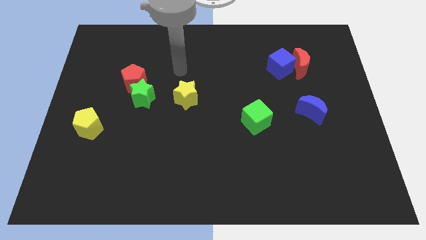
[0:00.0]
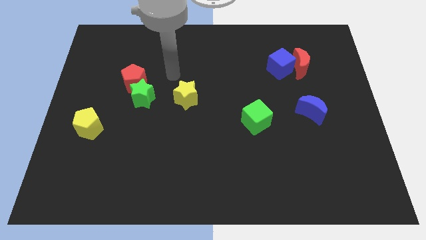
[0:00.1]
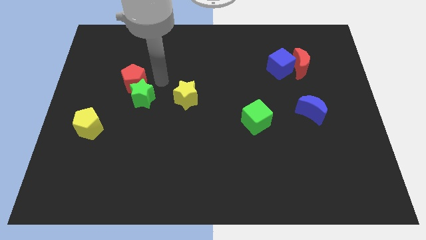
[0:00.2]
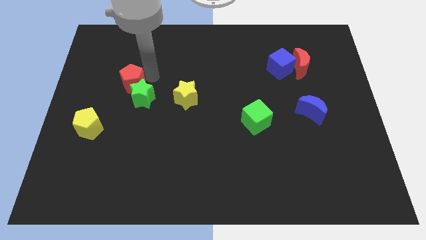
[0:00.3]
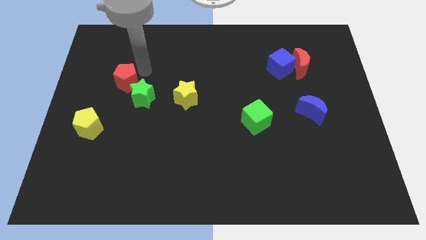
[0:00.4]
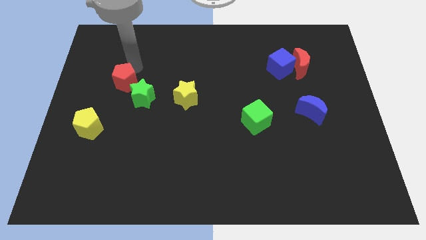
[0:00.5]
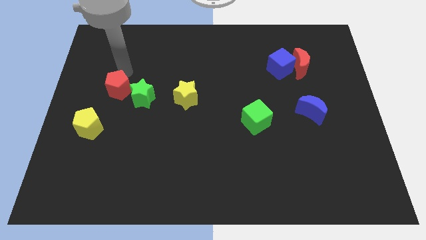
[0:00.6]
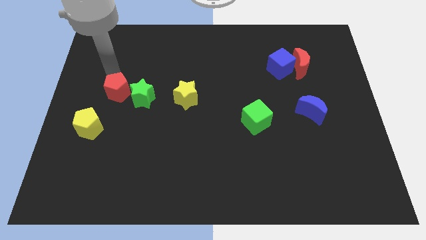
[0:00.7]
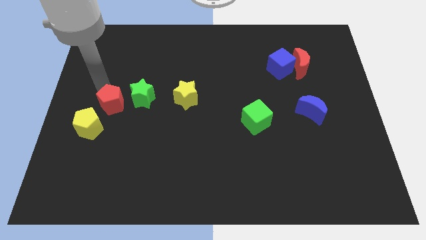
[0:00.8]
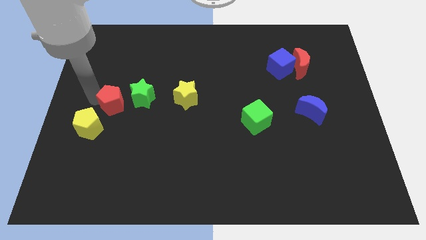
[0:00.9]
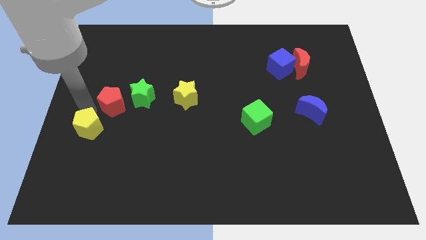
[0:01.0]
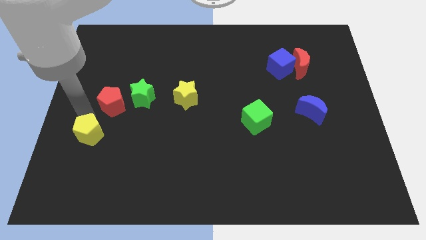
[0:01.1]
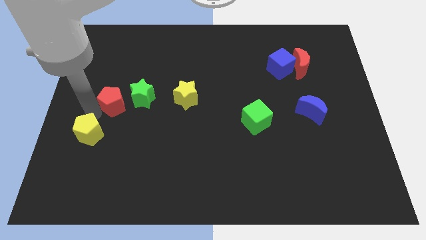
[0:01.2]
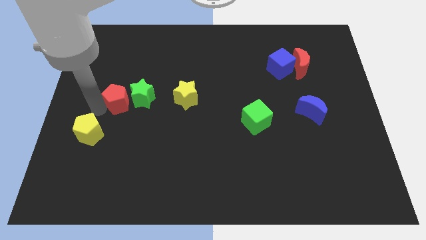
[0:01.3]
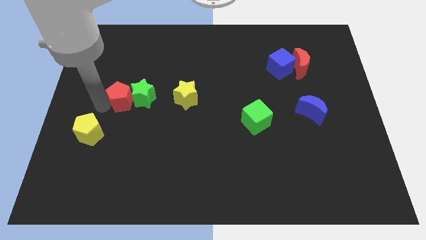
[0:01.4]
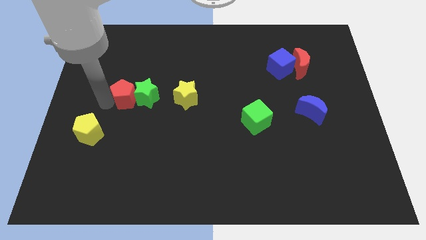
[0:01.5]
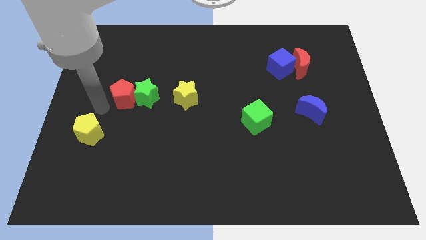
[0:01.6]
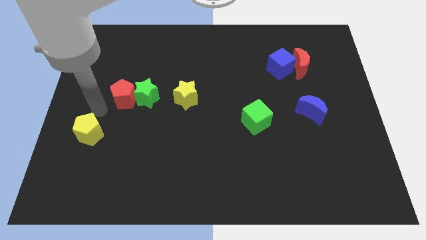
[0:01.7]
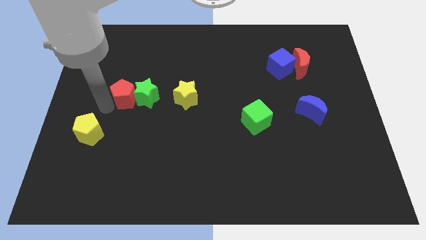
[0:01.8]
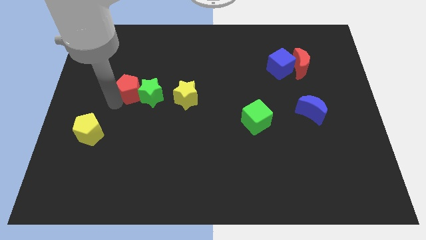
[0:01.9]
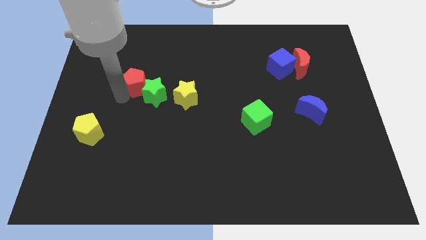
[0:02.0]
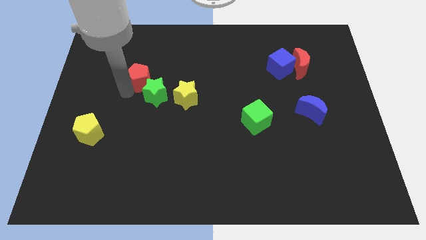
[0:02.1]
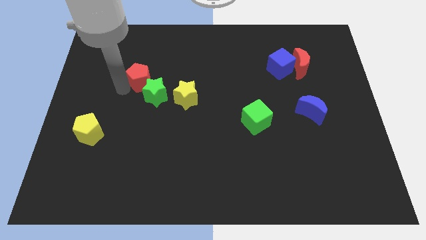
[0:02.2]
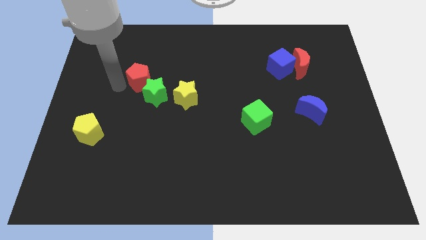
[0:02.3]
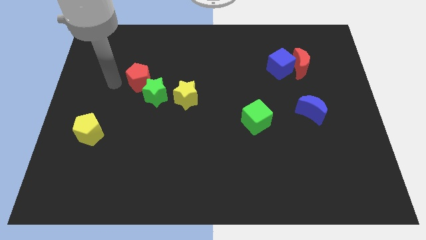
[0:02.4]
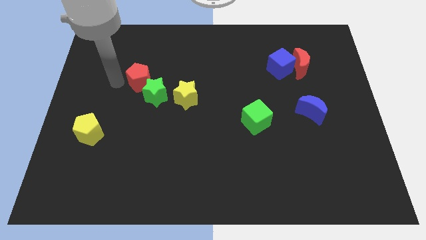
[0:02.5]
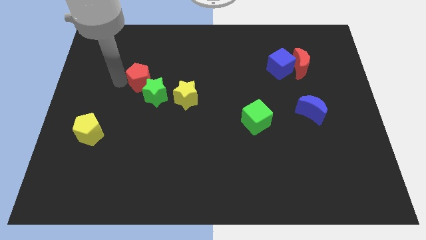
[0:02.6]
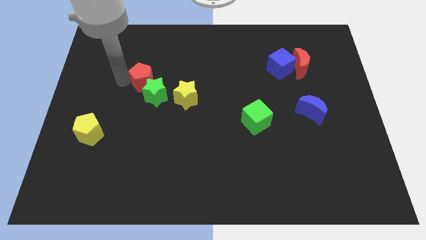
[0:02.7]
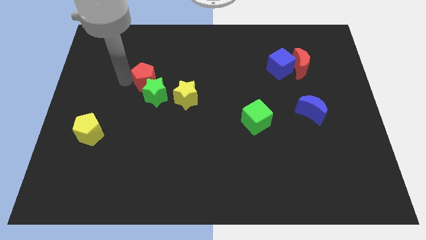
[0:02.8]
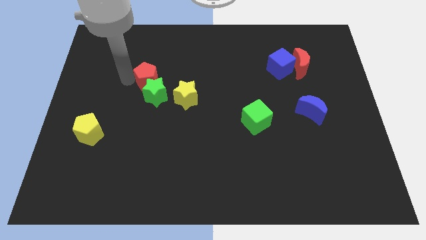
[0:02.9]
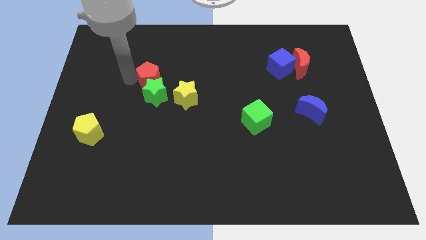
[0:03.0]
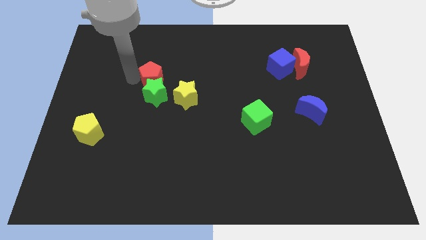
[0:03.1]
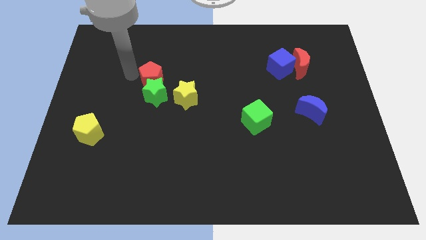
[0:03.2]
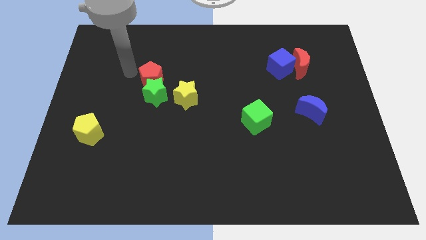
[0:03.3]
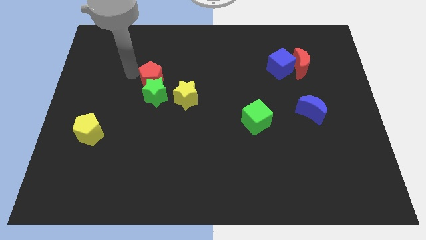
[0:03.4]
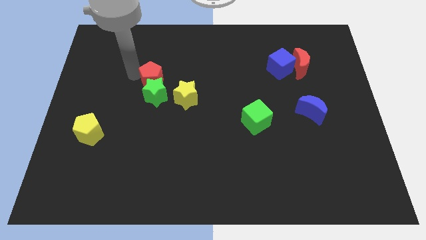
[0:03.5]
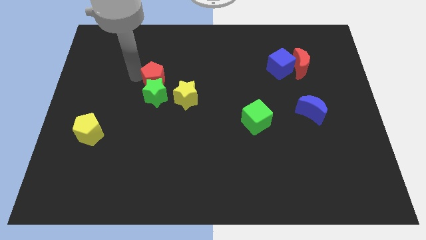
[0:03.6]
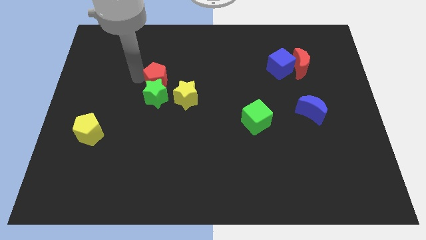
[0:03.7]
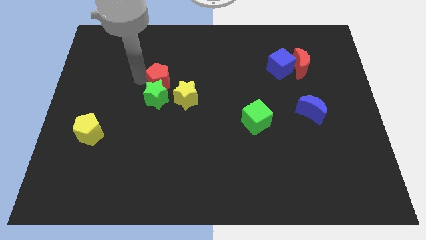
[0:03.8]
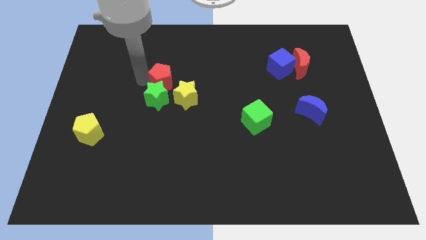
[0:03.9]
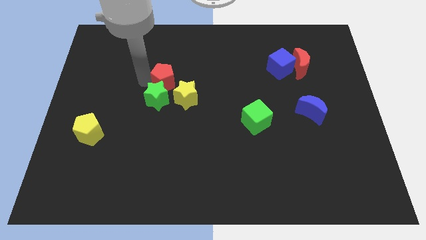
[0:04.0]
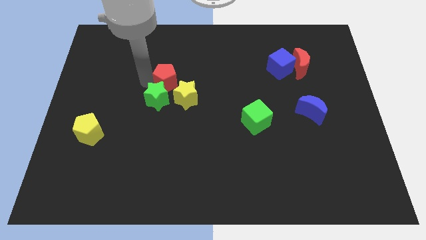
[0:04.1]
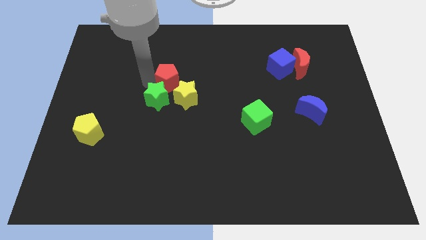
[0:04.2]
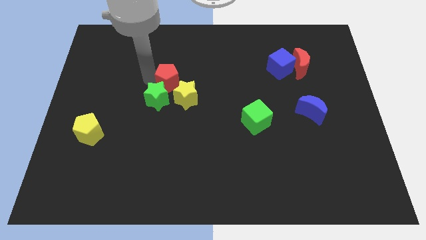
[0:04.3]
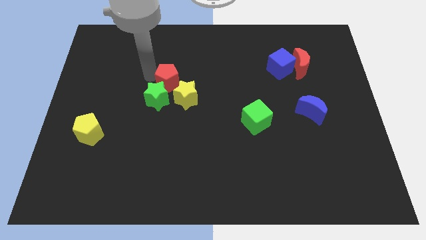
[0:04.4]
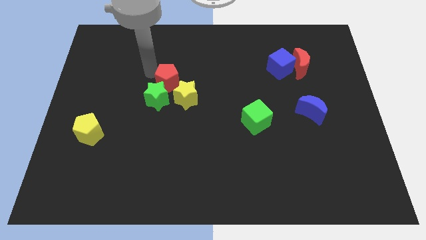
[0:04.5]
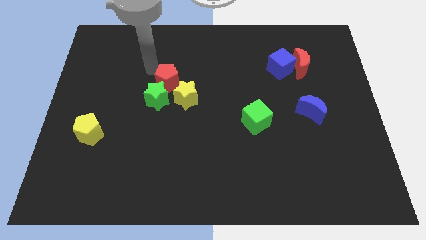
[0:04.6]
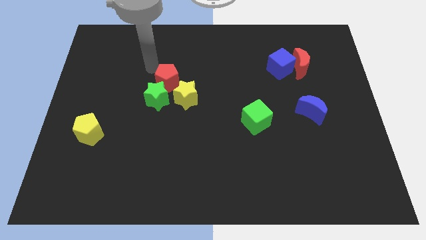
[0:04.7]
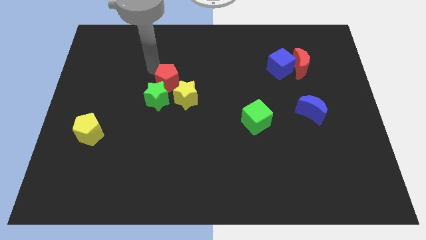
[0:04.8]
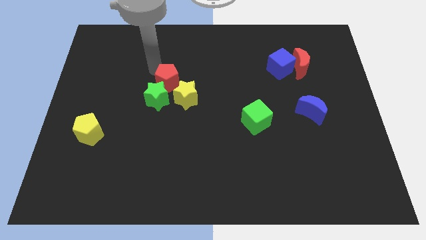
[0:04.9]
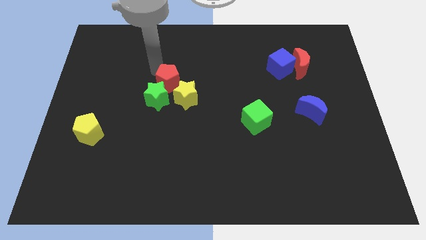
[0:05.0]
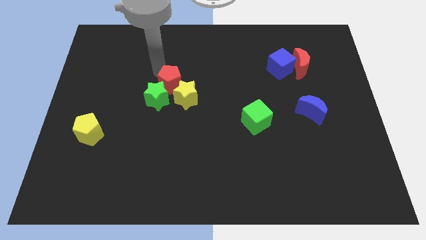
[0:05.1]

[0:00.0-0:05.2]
push the red pentagon to the yellow star

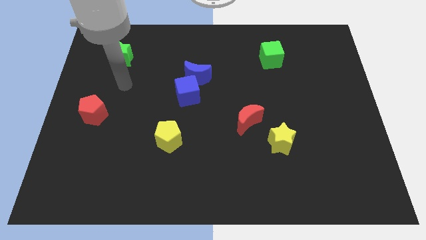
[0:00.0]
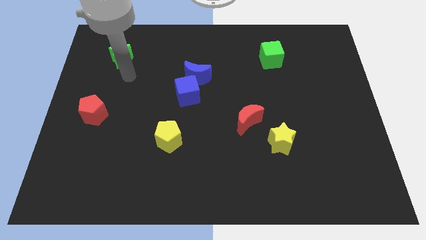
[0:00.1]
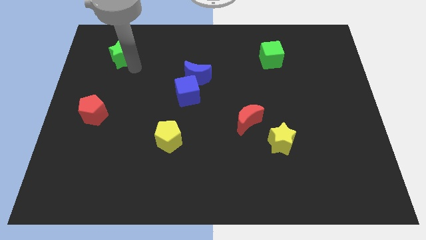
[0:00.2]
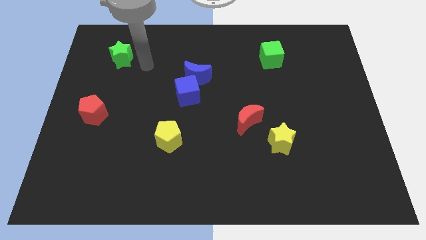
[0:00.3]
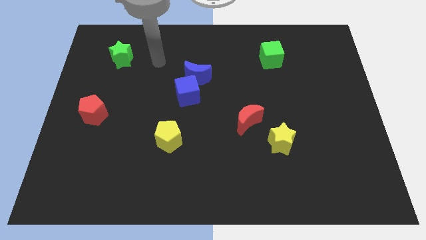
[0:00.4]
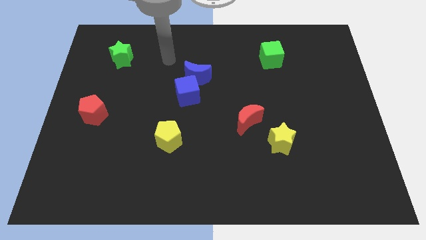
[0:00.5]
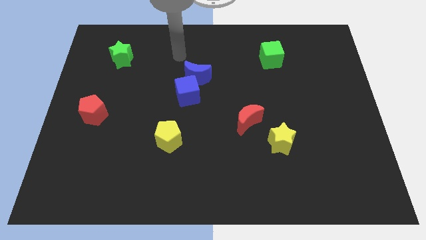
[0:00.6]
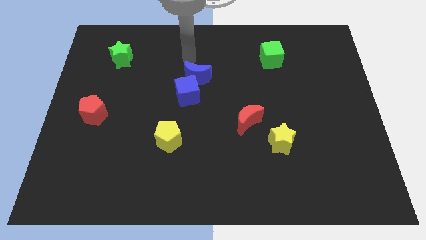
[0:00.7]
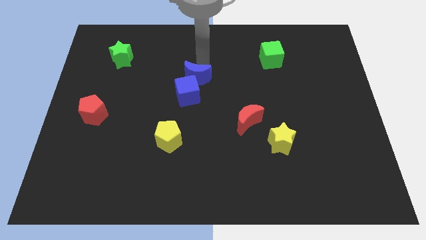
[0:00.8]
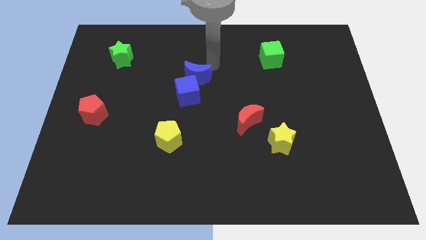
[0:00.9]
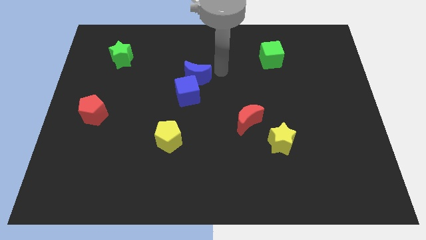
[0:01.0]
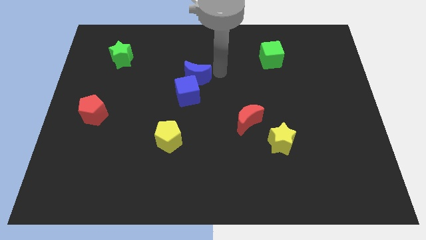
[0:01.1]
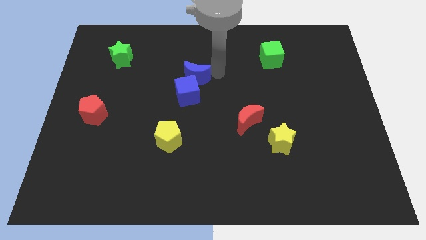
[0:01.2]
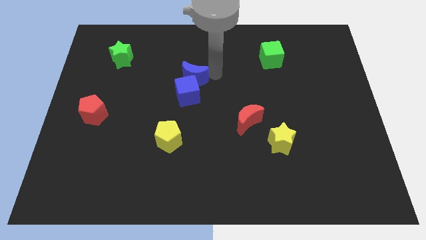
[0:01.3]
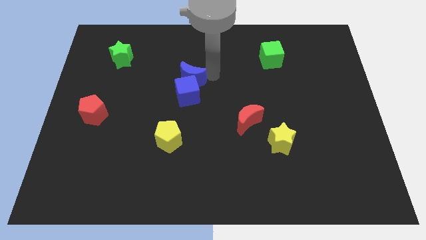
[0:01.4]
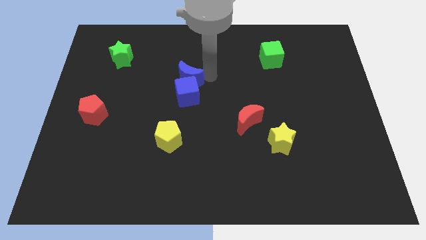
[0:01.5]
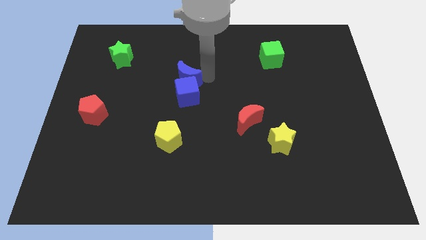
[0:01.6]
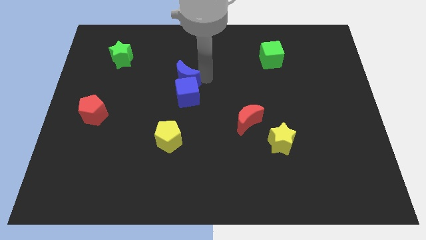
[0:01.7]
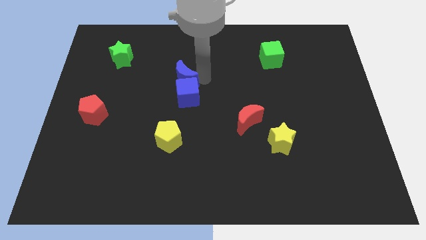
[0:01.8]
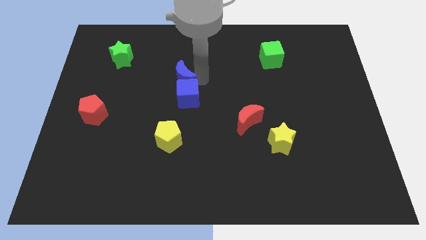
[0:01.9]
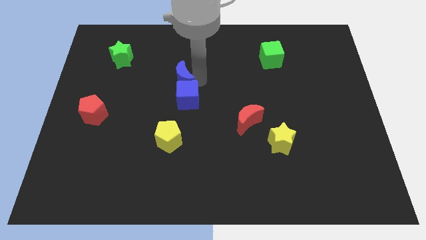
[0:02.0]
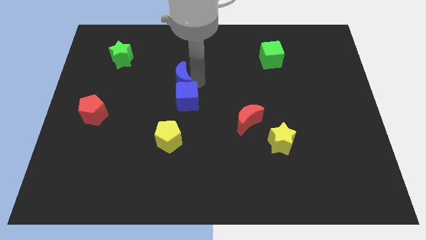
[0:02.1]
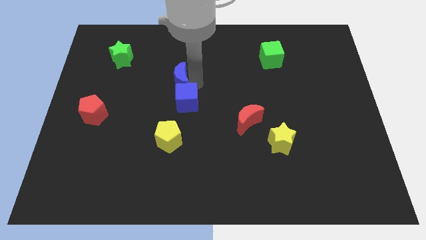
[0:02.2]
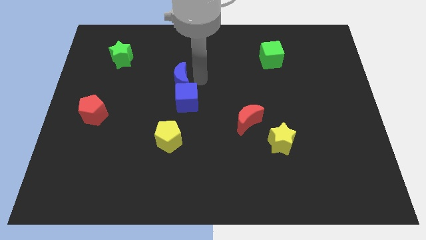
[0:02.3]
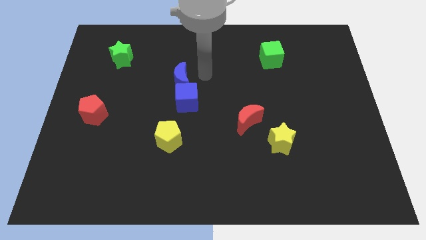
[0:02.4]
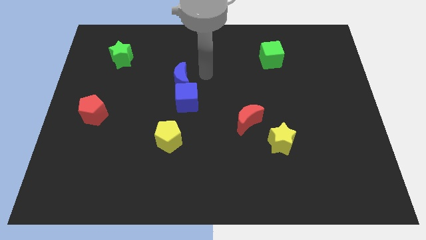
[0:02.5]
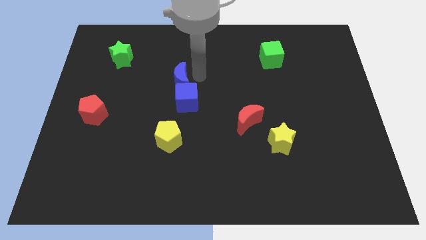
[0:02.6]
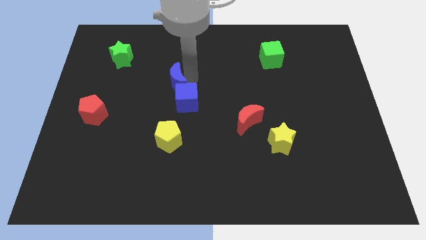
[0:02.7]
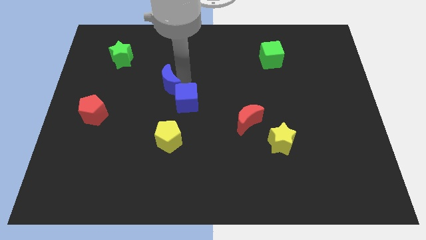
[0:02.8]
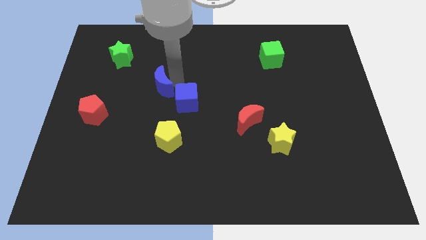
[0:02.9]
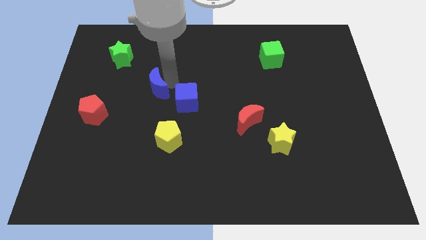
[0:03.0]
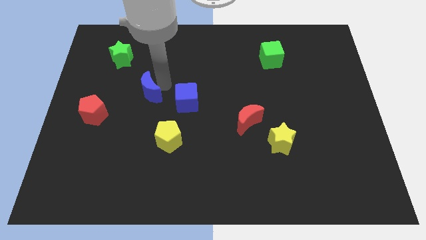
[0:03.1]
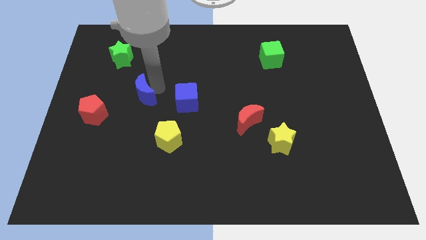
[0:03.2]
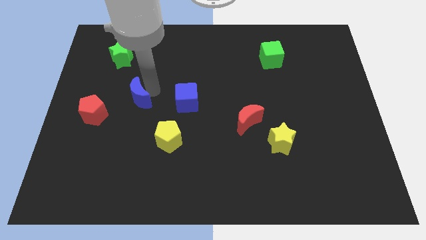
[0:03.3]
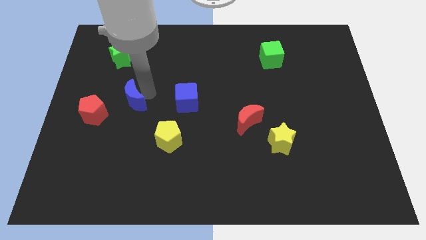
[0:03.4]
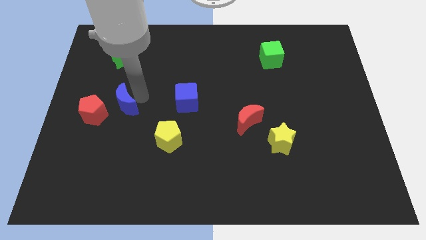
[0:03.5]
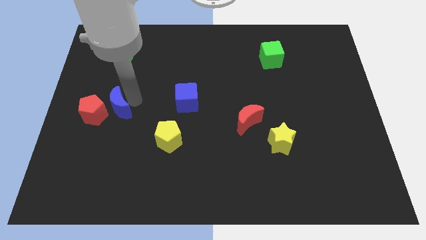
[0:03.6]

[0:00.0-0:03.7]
put the blue moon next to the red pentagon
